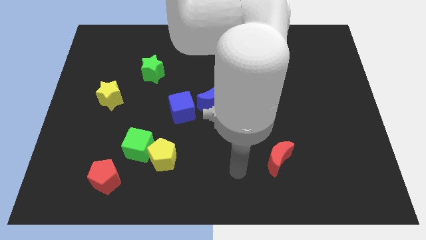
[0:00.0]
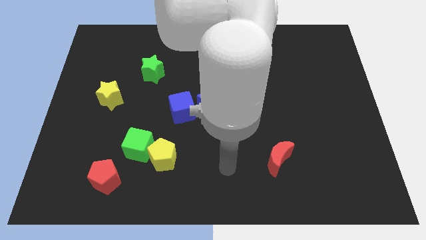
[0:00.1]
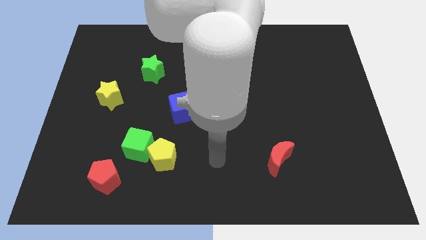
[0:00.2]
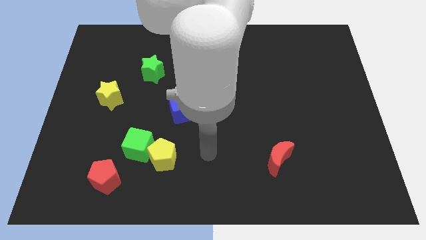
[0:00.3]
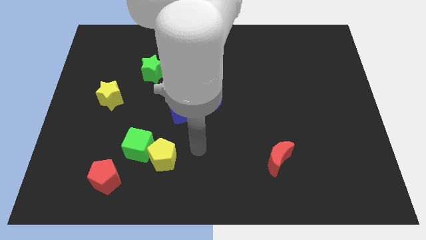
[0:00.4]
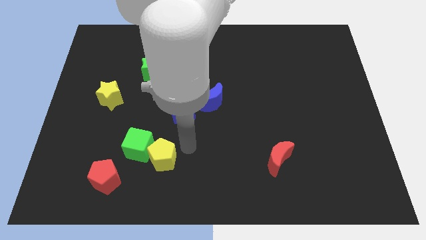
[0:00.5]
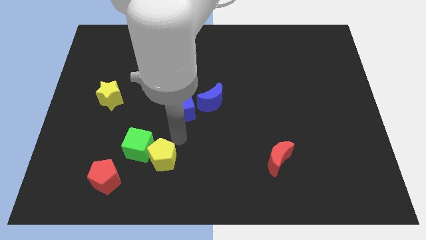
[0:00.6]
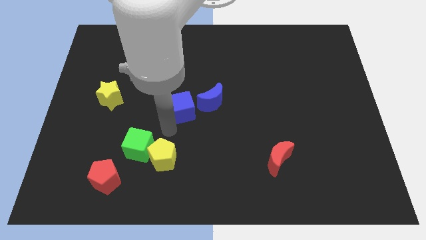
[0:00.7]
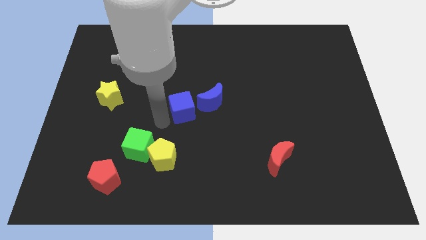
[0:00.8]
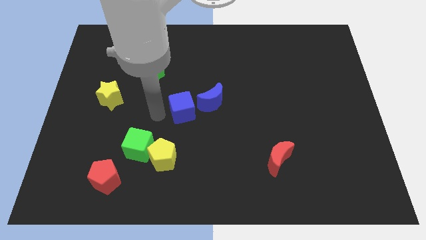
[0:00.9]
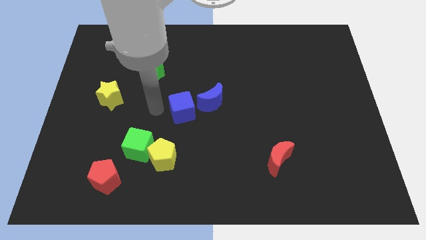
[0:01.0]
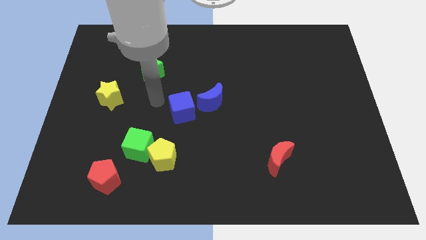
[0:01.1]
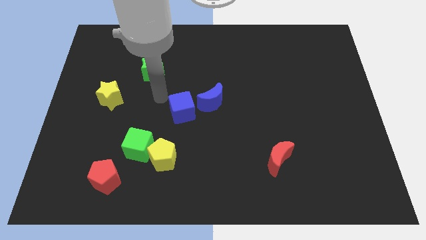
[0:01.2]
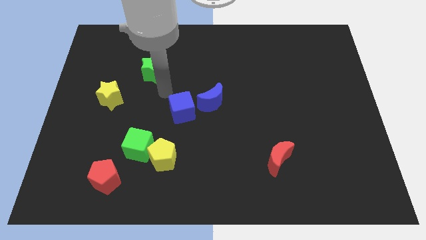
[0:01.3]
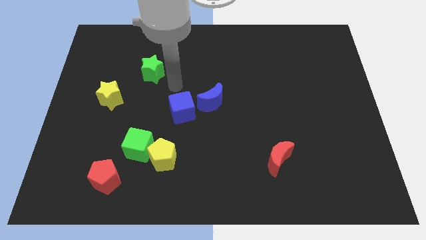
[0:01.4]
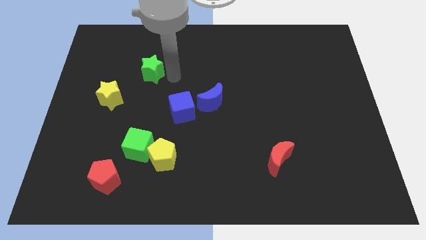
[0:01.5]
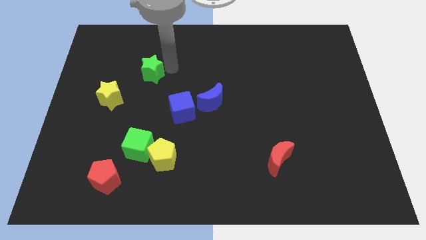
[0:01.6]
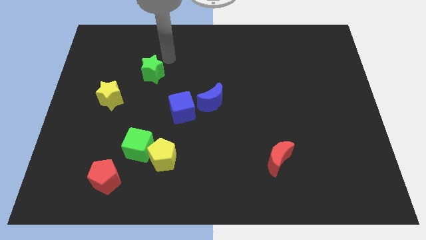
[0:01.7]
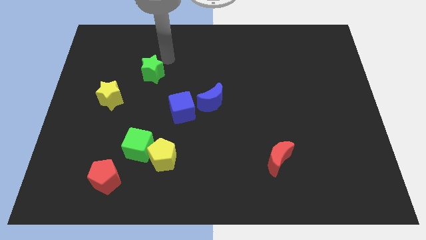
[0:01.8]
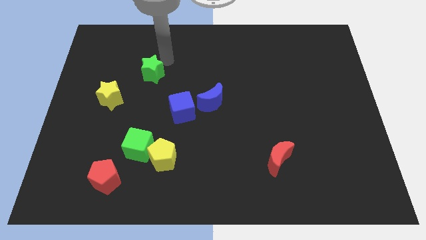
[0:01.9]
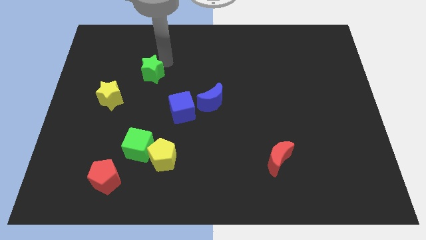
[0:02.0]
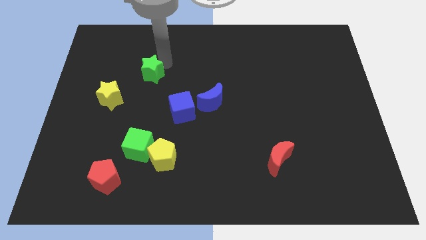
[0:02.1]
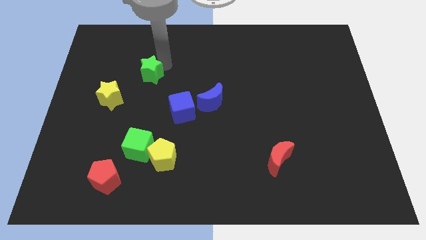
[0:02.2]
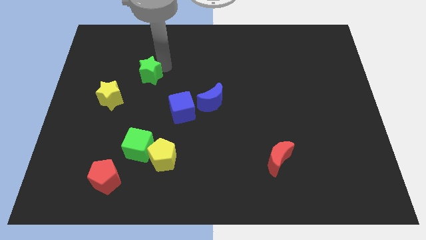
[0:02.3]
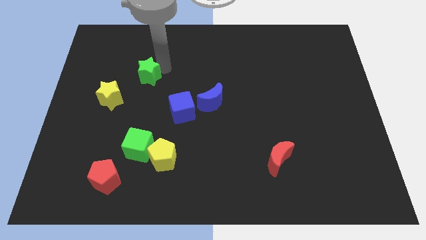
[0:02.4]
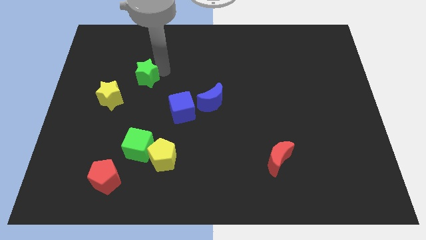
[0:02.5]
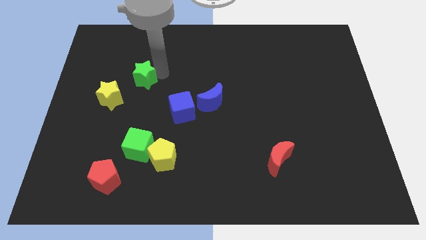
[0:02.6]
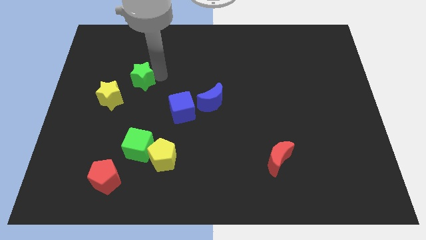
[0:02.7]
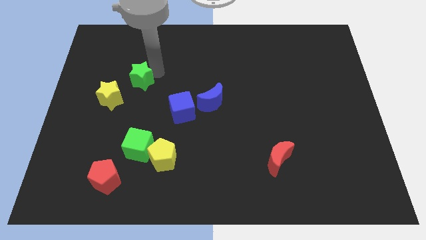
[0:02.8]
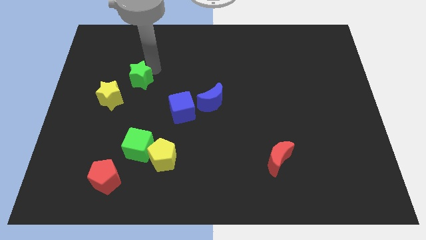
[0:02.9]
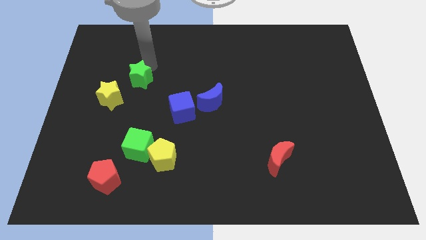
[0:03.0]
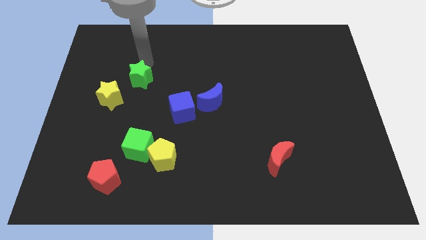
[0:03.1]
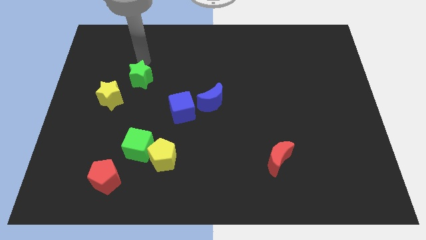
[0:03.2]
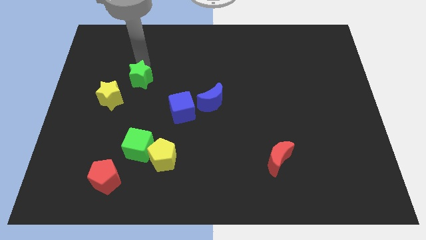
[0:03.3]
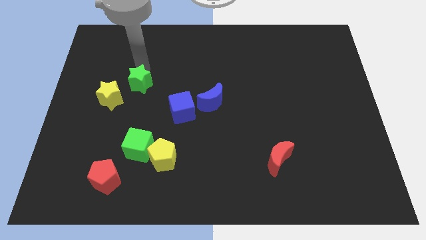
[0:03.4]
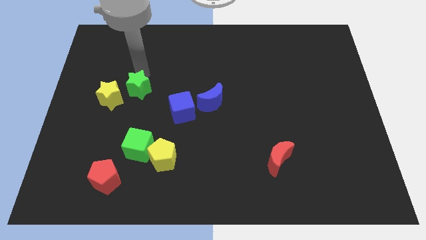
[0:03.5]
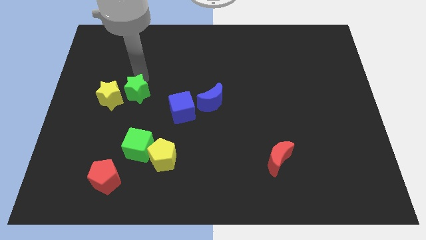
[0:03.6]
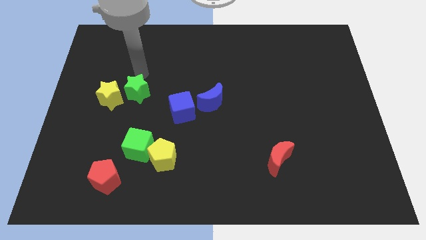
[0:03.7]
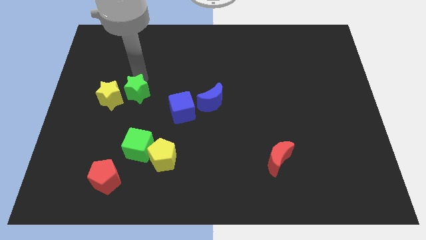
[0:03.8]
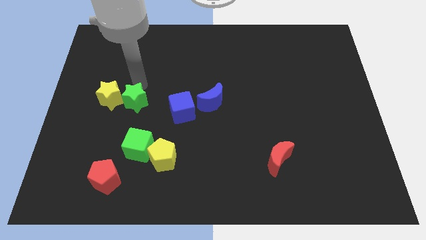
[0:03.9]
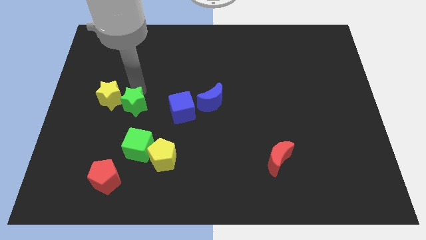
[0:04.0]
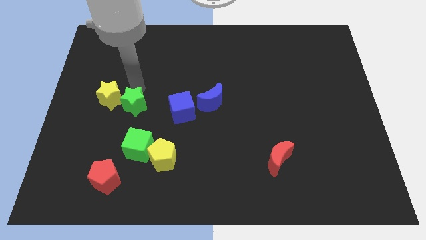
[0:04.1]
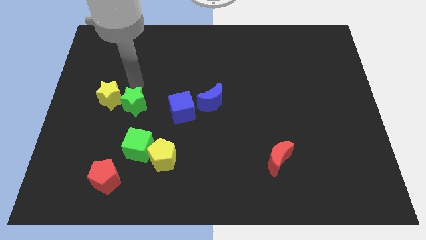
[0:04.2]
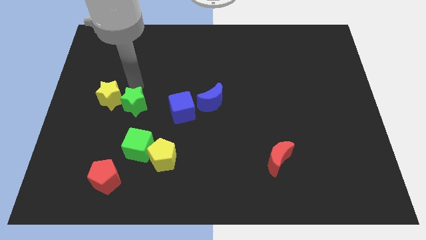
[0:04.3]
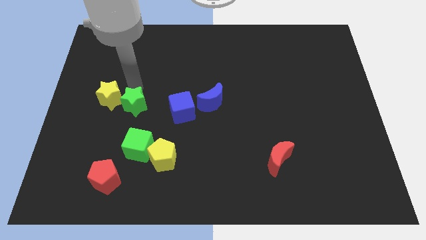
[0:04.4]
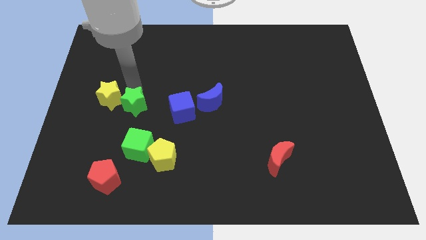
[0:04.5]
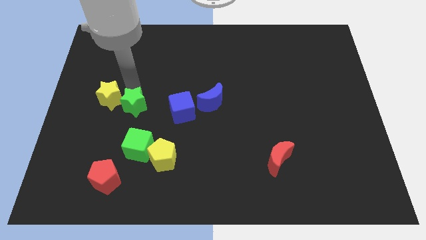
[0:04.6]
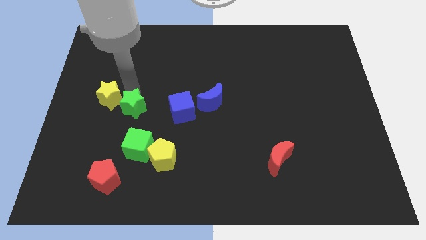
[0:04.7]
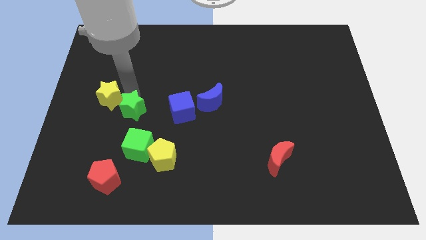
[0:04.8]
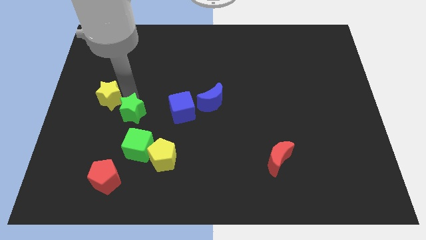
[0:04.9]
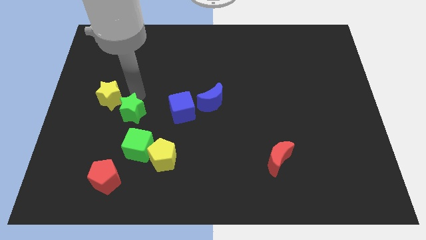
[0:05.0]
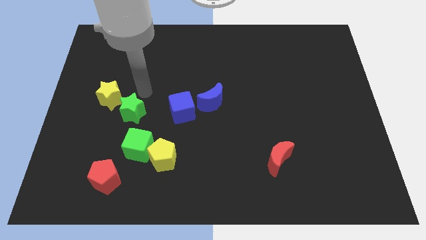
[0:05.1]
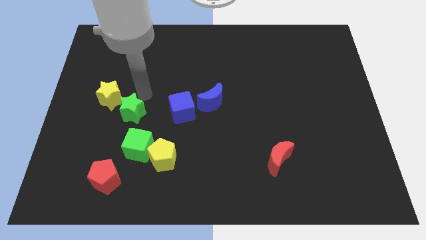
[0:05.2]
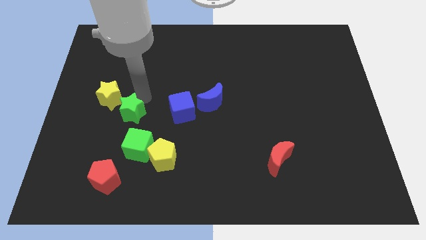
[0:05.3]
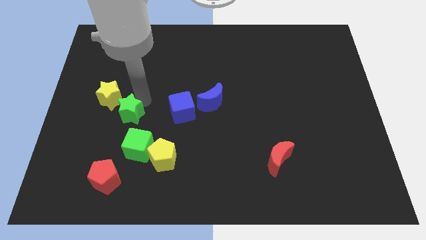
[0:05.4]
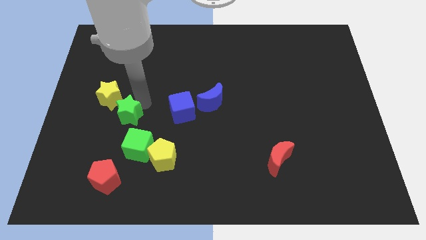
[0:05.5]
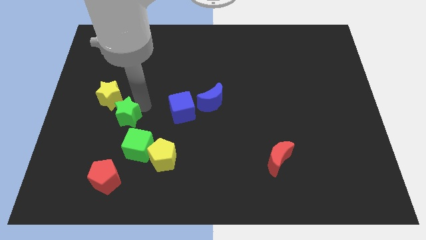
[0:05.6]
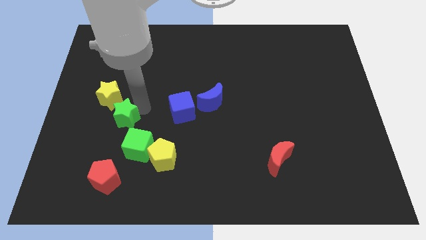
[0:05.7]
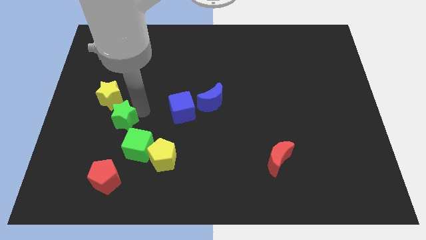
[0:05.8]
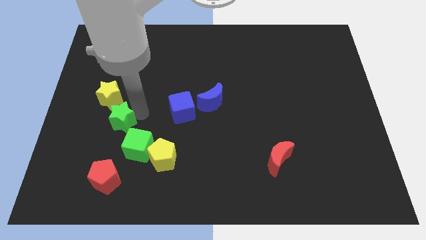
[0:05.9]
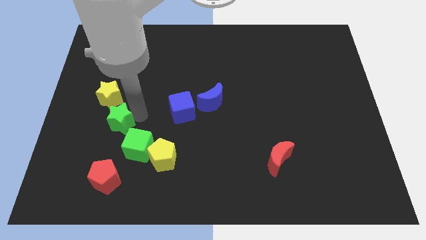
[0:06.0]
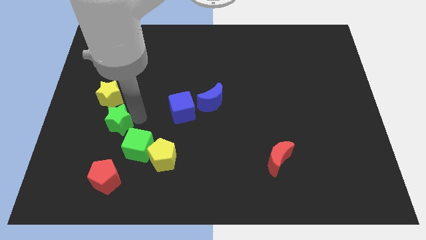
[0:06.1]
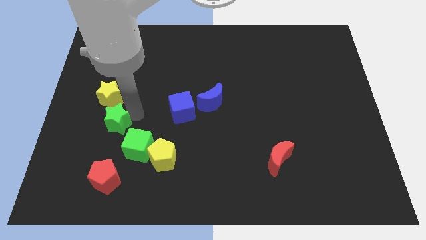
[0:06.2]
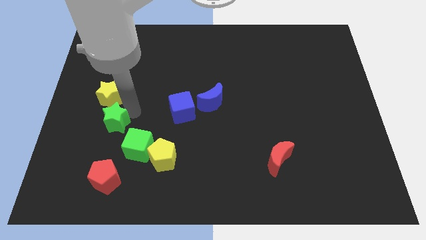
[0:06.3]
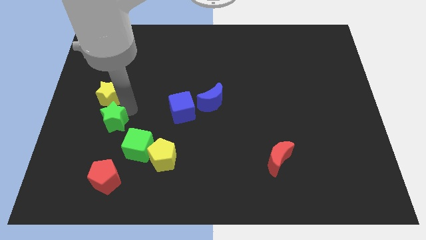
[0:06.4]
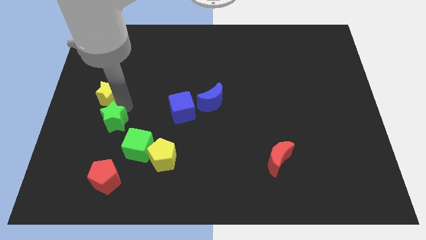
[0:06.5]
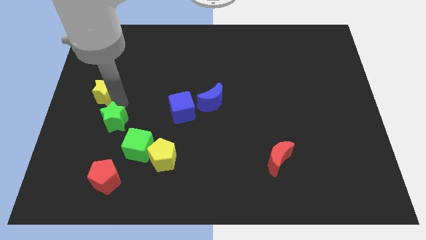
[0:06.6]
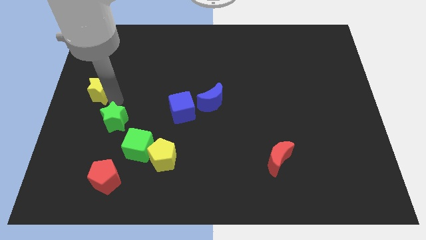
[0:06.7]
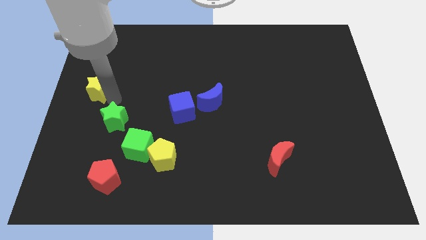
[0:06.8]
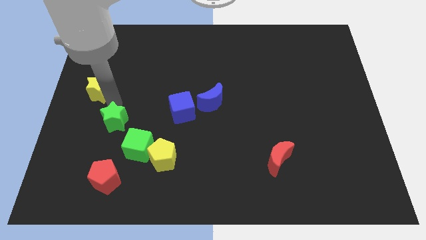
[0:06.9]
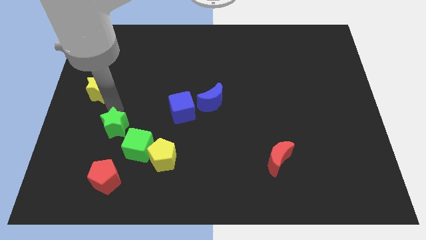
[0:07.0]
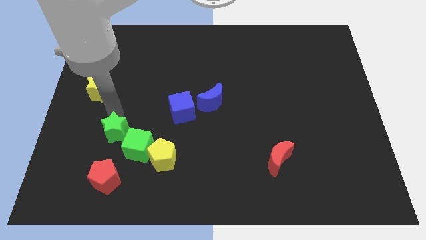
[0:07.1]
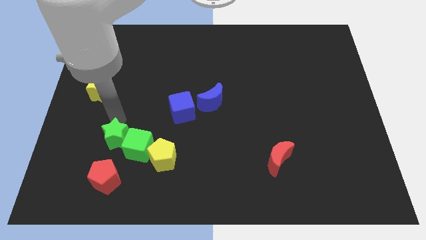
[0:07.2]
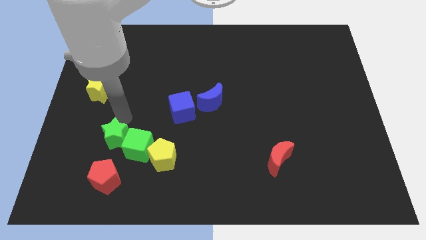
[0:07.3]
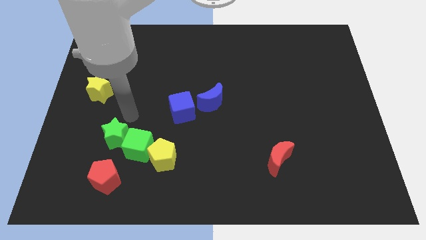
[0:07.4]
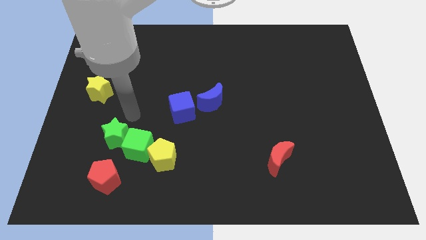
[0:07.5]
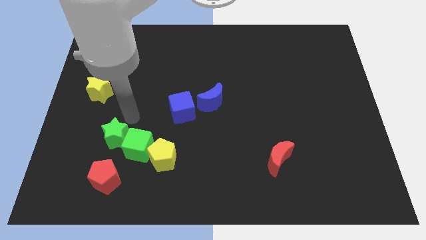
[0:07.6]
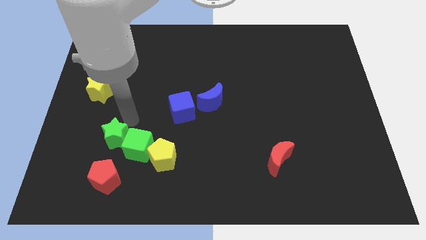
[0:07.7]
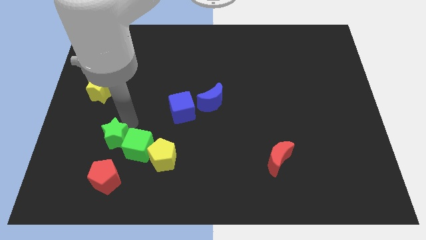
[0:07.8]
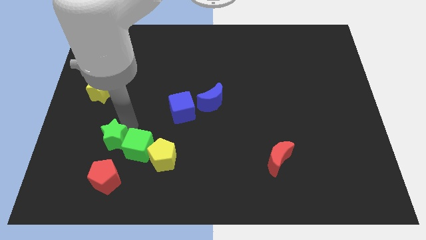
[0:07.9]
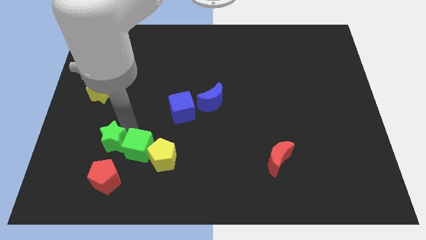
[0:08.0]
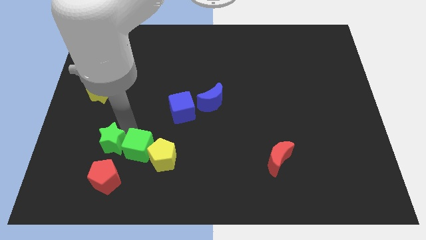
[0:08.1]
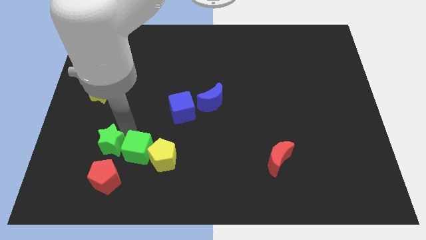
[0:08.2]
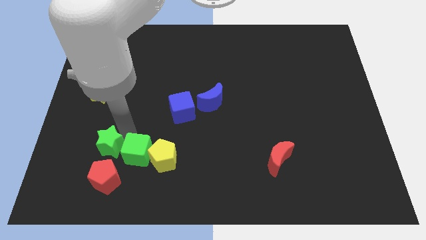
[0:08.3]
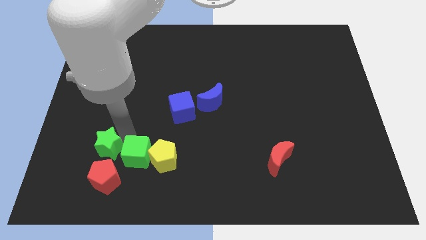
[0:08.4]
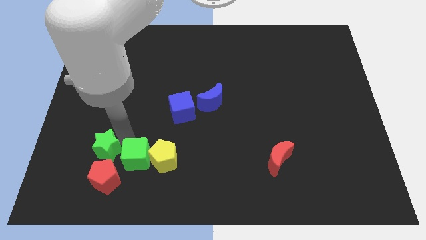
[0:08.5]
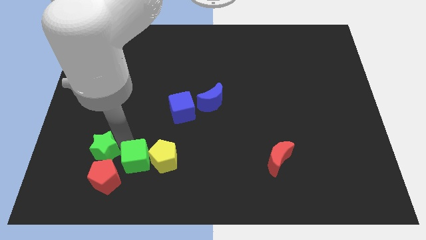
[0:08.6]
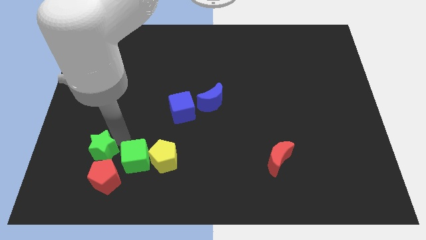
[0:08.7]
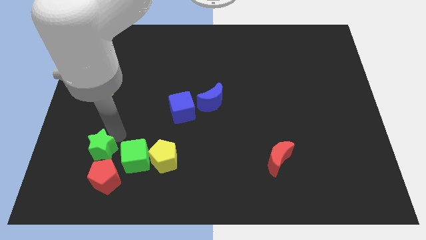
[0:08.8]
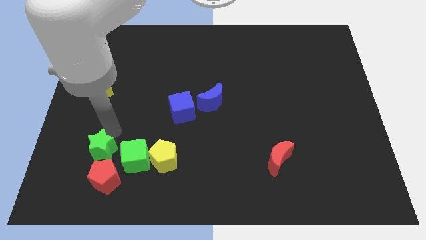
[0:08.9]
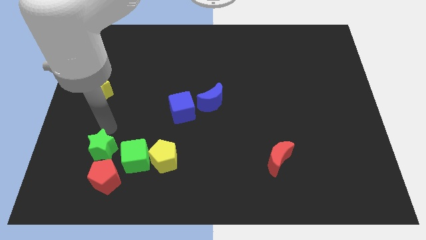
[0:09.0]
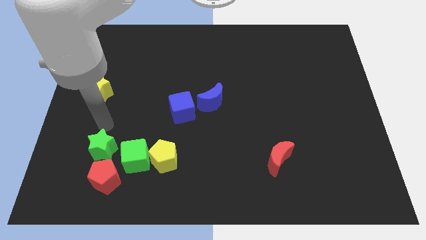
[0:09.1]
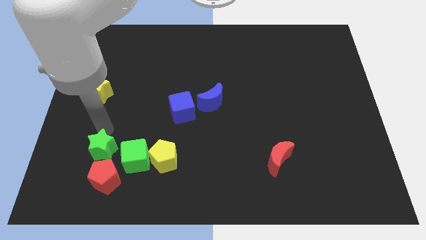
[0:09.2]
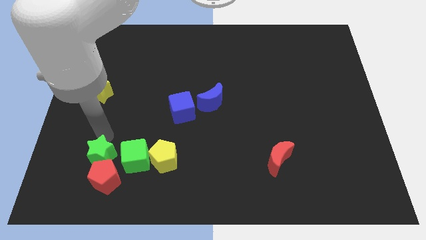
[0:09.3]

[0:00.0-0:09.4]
move the green star to the red pentagon
